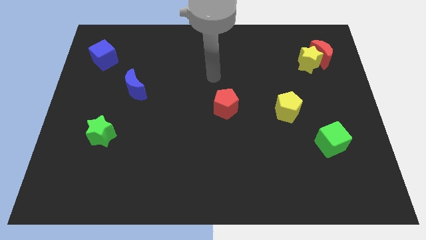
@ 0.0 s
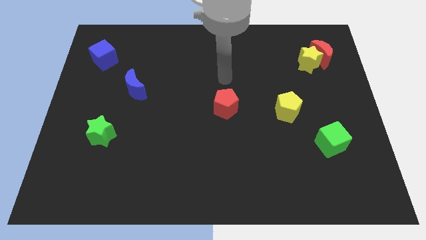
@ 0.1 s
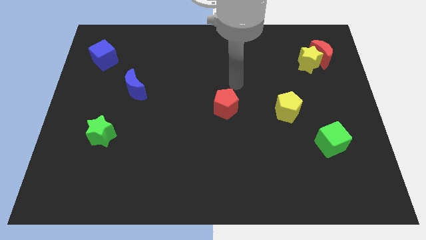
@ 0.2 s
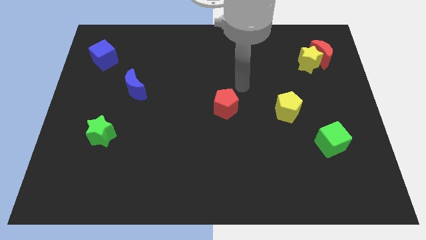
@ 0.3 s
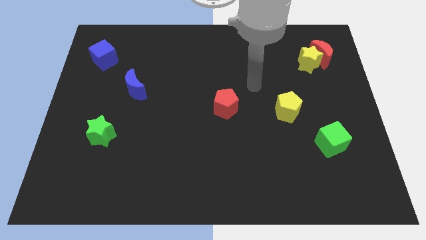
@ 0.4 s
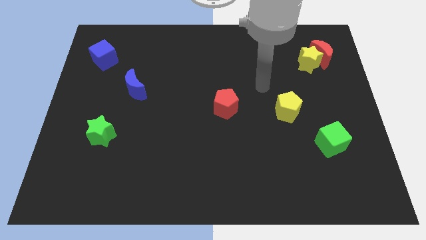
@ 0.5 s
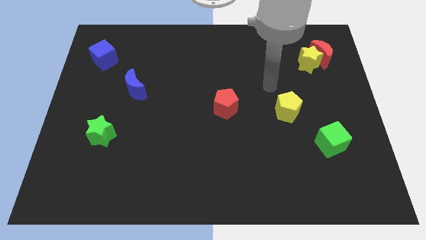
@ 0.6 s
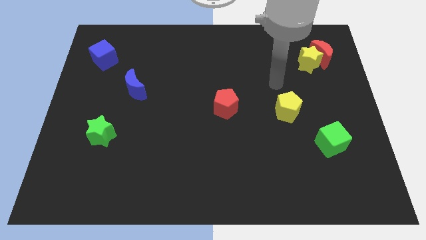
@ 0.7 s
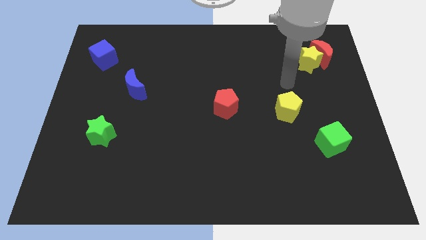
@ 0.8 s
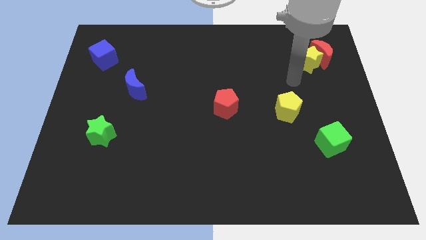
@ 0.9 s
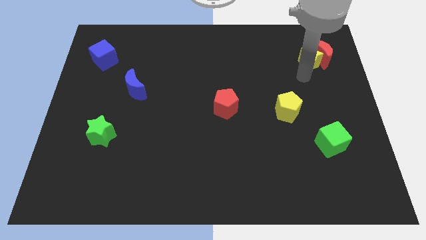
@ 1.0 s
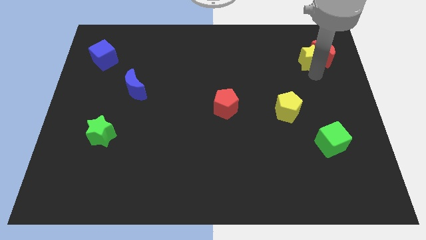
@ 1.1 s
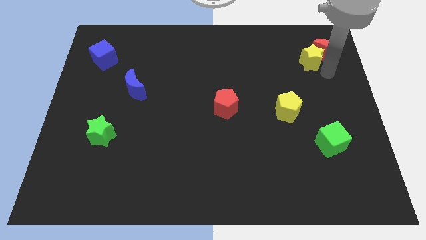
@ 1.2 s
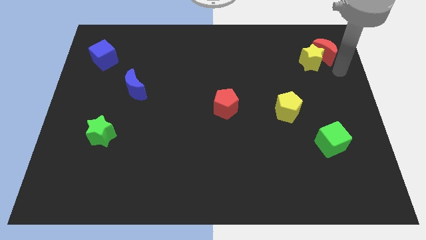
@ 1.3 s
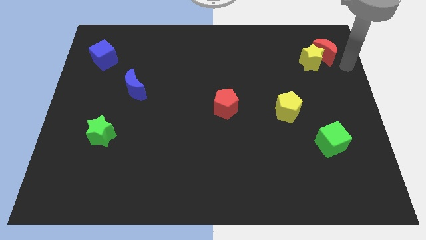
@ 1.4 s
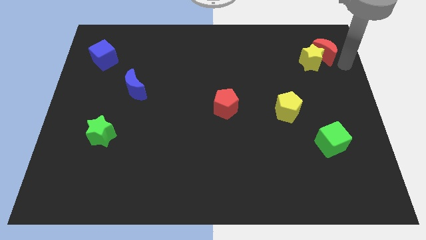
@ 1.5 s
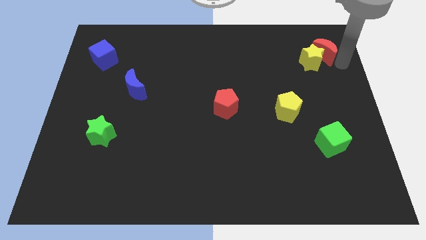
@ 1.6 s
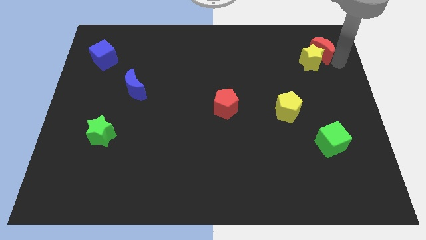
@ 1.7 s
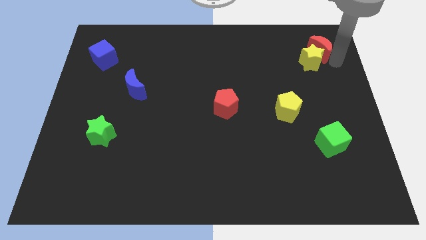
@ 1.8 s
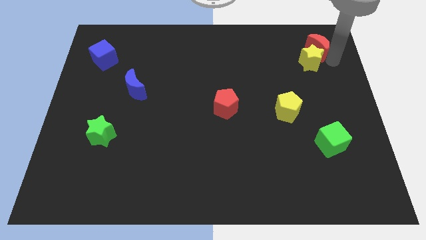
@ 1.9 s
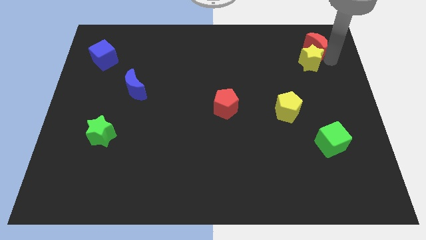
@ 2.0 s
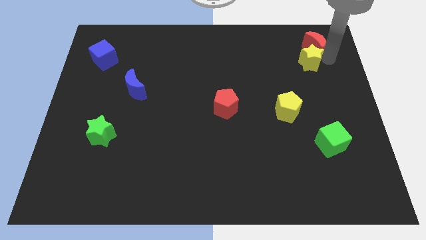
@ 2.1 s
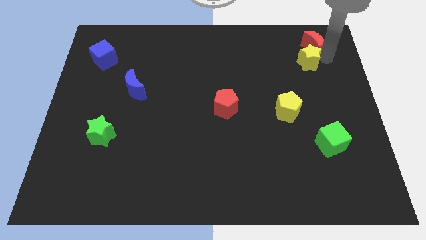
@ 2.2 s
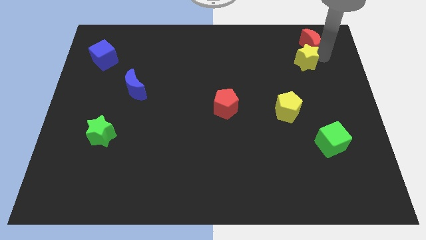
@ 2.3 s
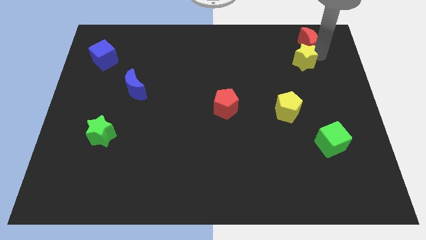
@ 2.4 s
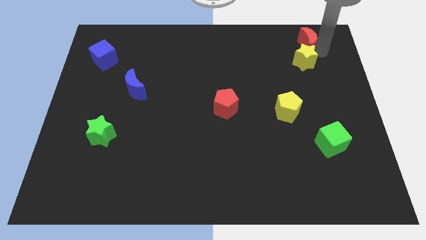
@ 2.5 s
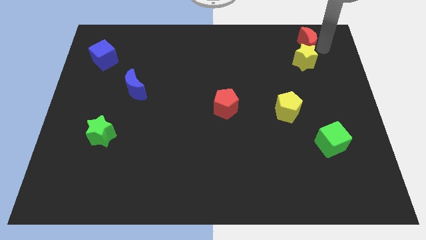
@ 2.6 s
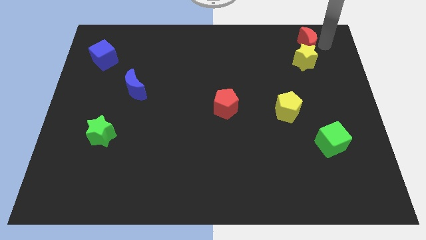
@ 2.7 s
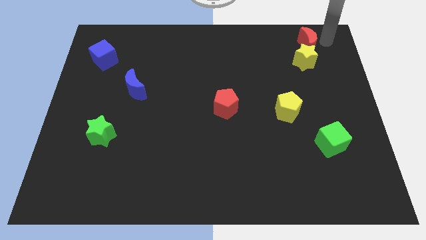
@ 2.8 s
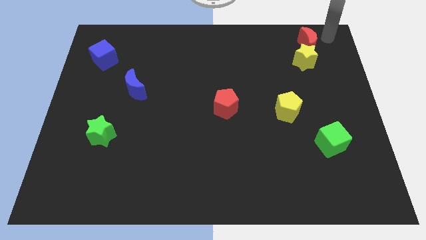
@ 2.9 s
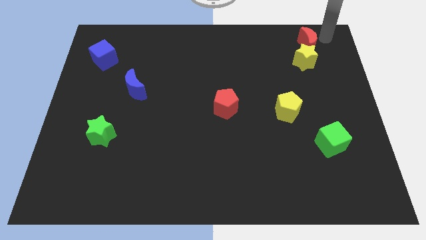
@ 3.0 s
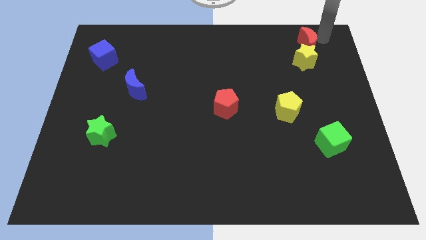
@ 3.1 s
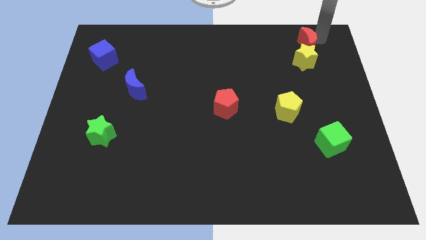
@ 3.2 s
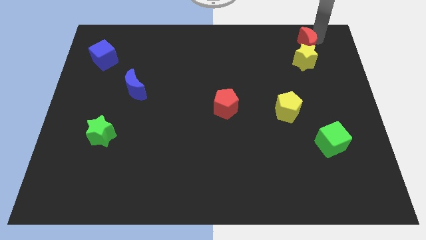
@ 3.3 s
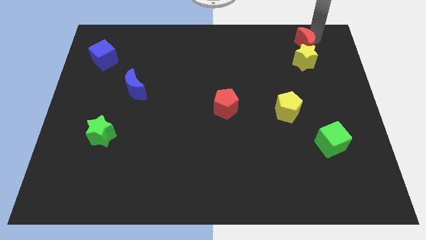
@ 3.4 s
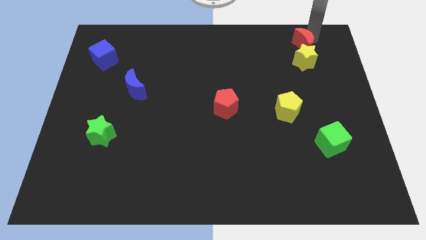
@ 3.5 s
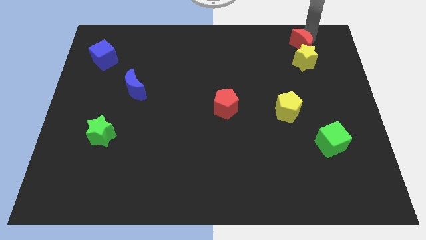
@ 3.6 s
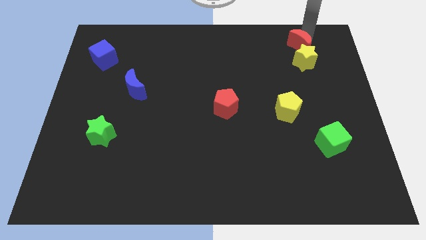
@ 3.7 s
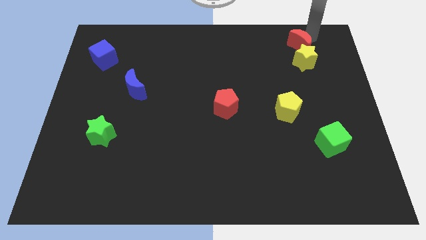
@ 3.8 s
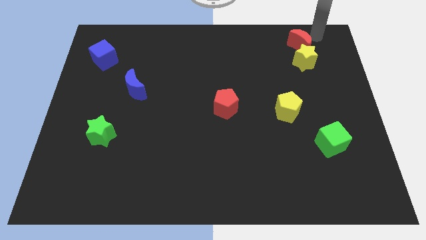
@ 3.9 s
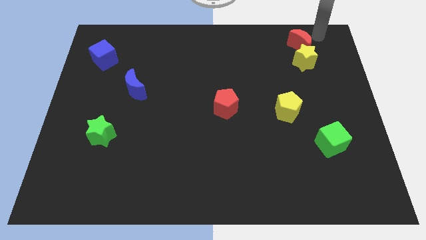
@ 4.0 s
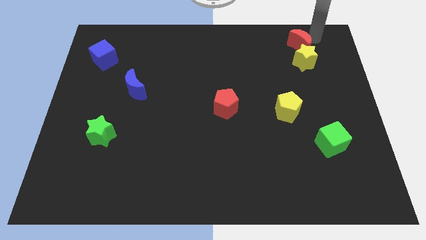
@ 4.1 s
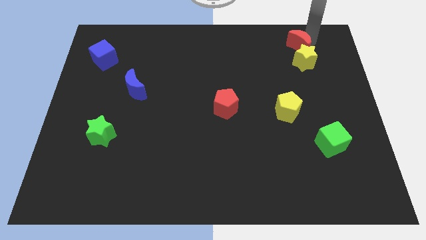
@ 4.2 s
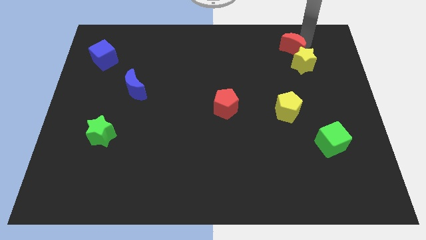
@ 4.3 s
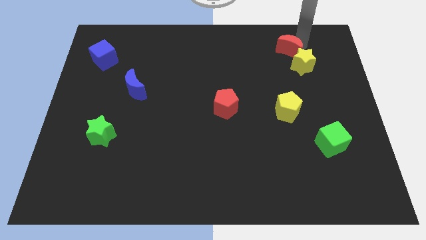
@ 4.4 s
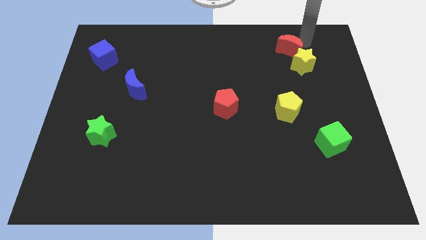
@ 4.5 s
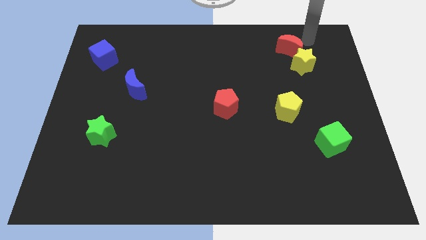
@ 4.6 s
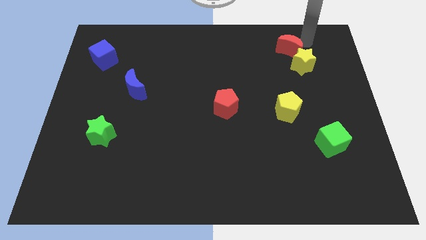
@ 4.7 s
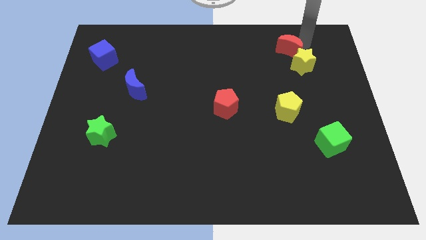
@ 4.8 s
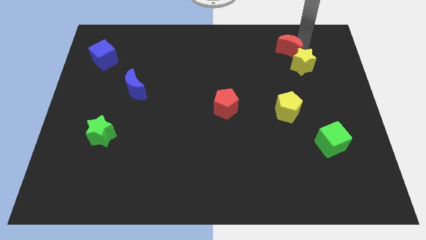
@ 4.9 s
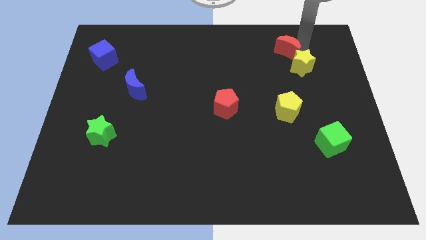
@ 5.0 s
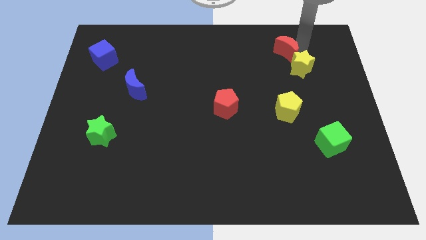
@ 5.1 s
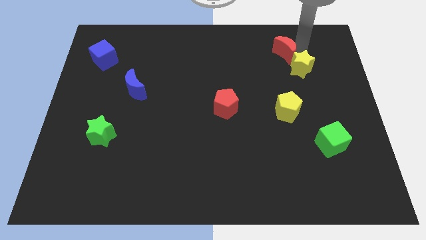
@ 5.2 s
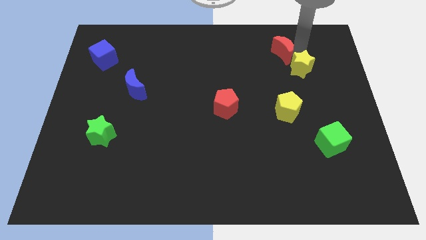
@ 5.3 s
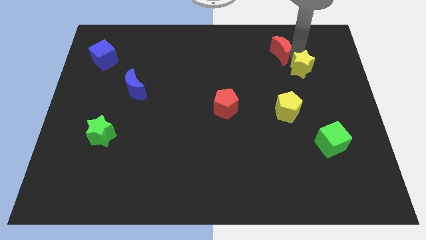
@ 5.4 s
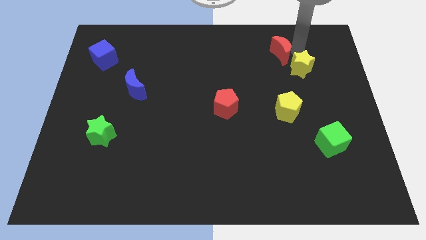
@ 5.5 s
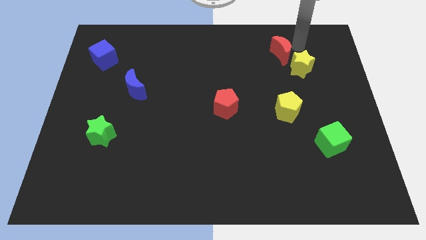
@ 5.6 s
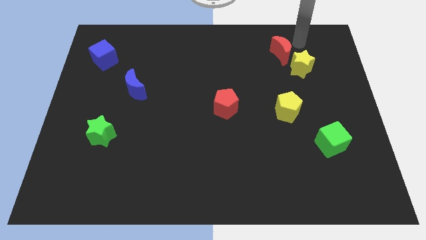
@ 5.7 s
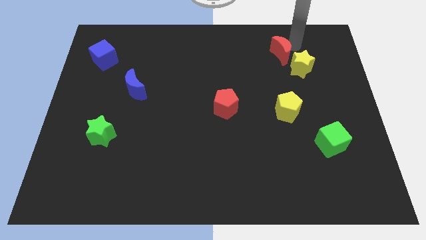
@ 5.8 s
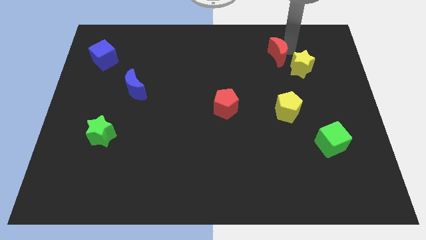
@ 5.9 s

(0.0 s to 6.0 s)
put the red moon to the left of the yellow star

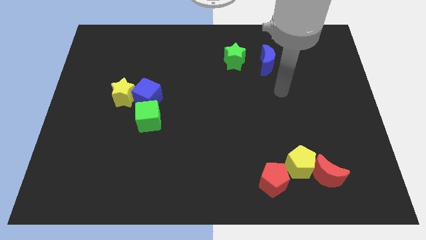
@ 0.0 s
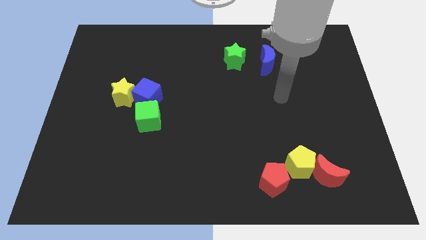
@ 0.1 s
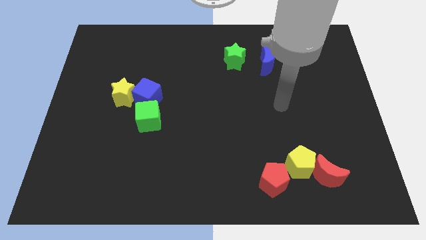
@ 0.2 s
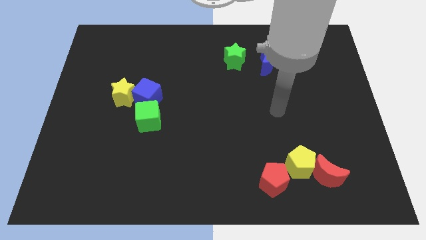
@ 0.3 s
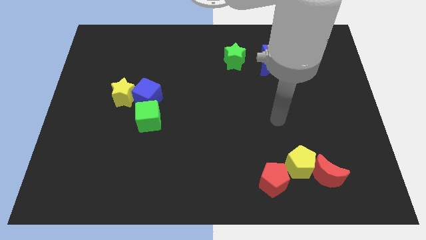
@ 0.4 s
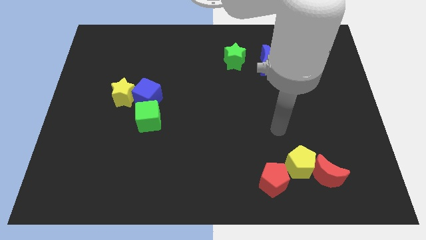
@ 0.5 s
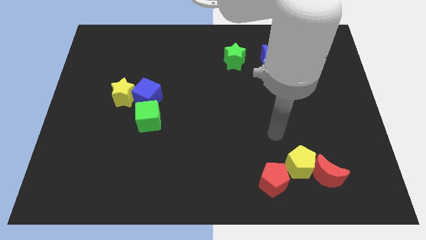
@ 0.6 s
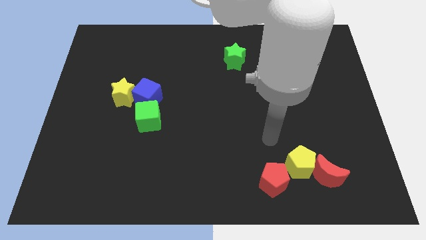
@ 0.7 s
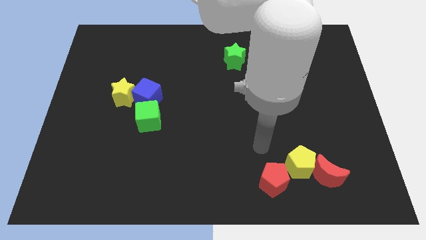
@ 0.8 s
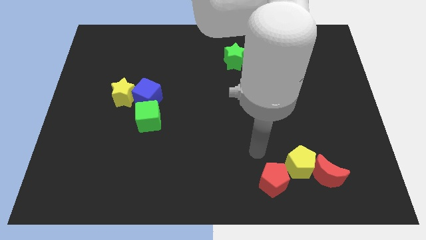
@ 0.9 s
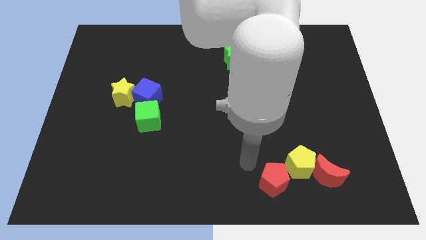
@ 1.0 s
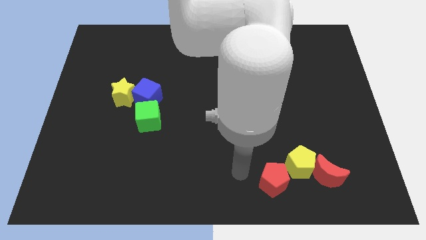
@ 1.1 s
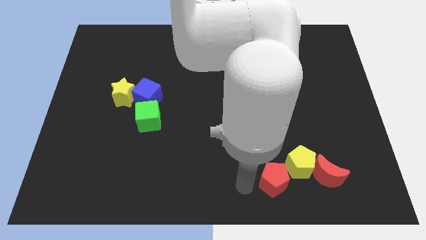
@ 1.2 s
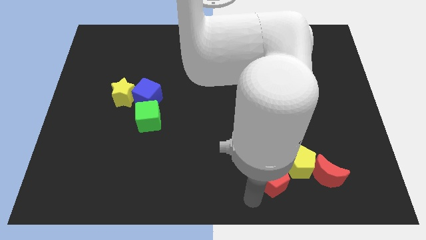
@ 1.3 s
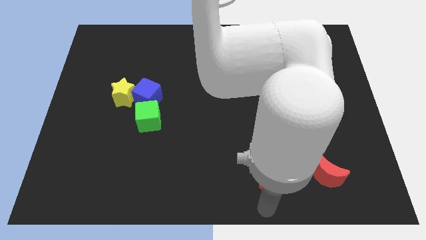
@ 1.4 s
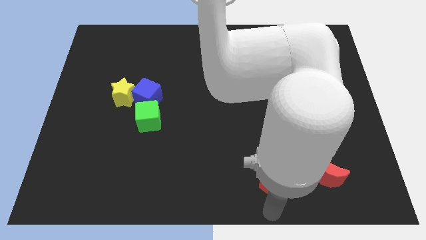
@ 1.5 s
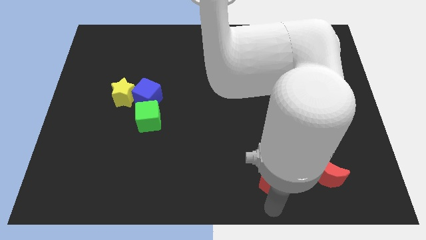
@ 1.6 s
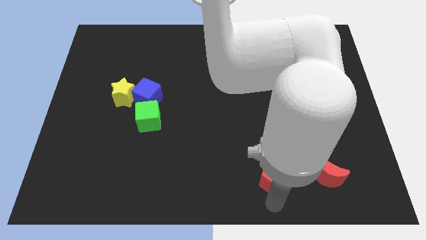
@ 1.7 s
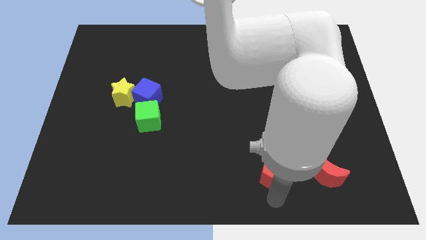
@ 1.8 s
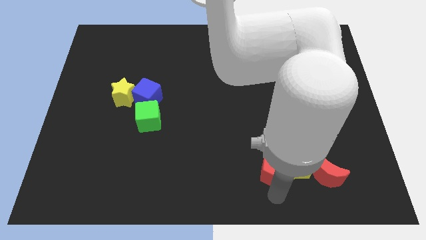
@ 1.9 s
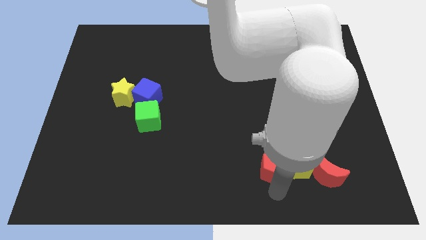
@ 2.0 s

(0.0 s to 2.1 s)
put the red pentagon to the top left side of the yellow pentagon
